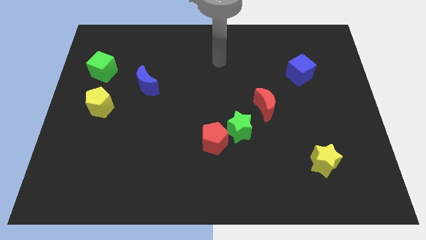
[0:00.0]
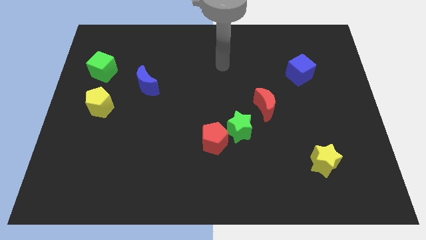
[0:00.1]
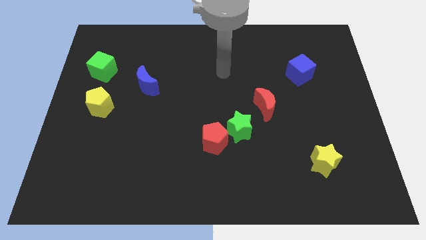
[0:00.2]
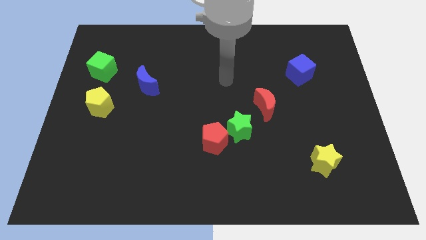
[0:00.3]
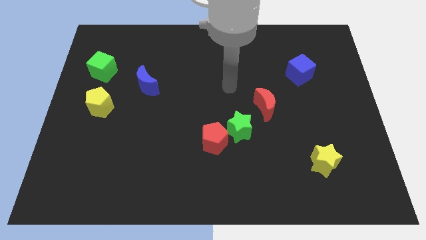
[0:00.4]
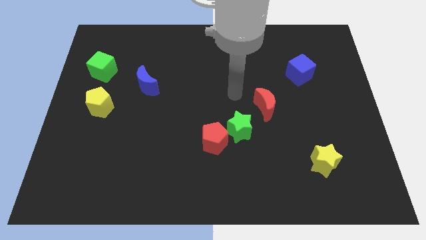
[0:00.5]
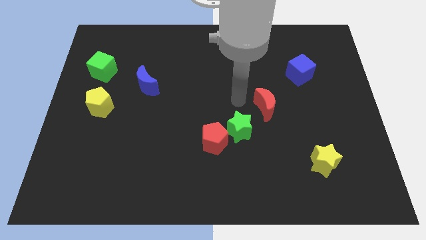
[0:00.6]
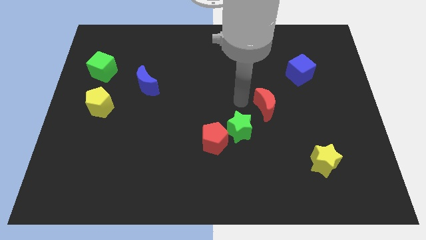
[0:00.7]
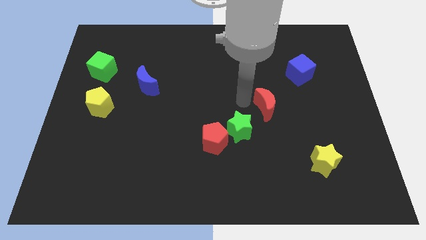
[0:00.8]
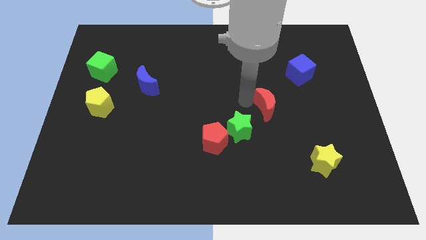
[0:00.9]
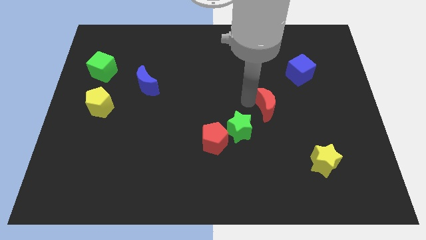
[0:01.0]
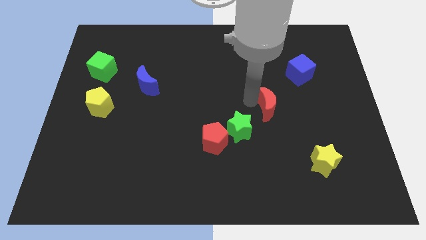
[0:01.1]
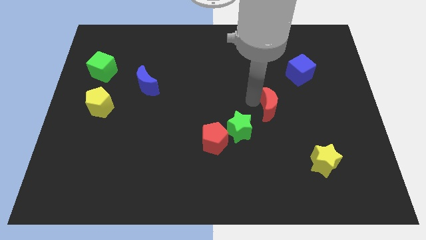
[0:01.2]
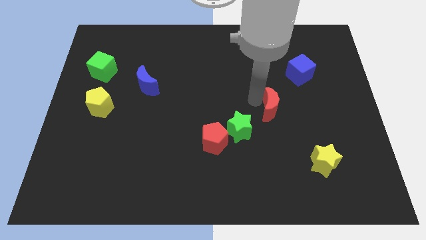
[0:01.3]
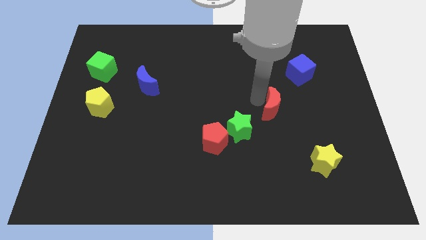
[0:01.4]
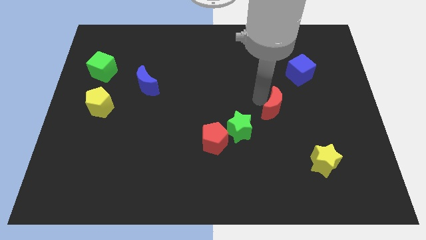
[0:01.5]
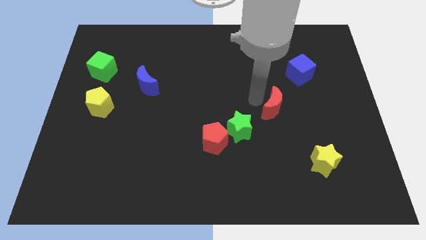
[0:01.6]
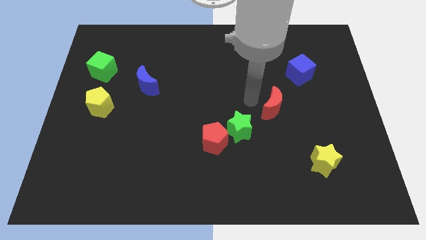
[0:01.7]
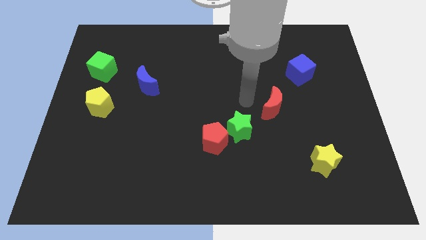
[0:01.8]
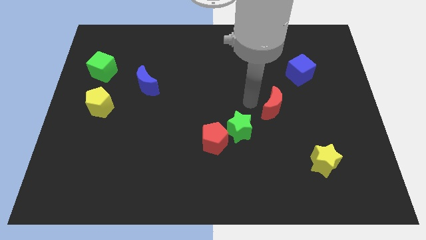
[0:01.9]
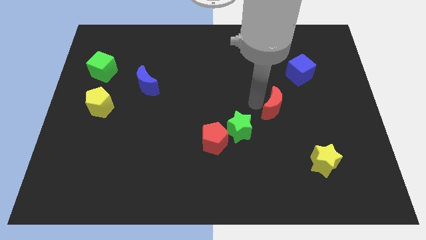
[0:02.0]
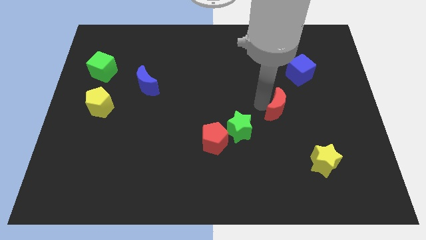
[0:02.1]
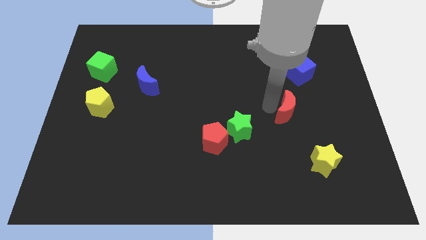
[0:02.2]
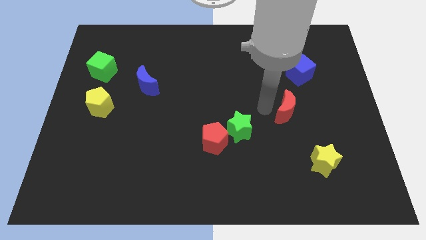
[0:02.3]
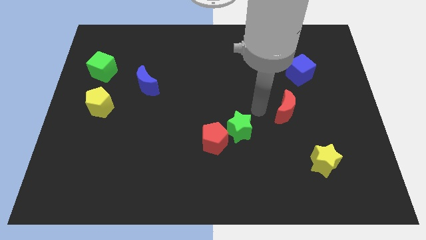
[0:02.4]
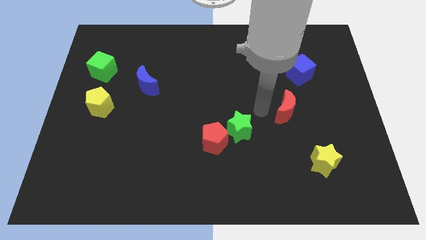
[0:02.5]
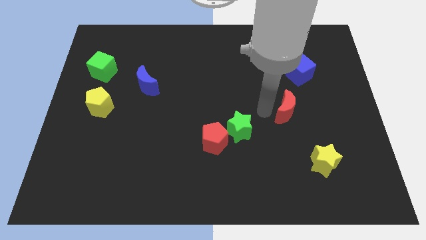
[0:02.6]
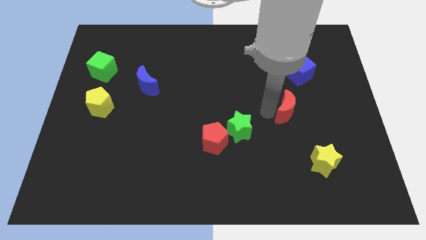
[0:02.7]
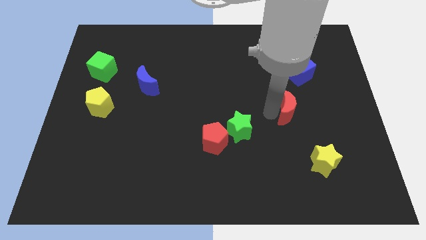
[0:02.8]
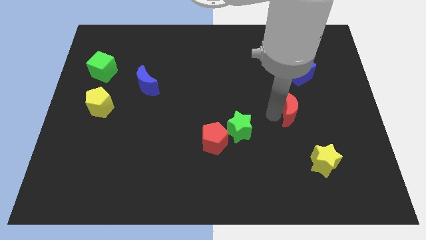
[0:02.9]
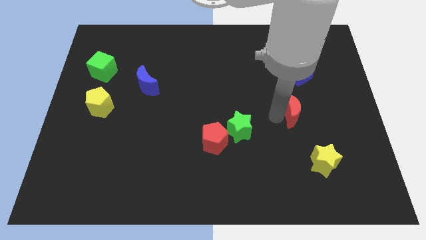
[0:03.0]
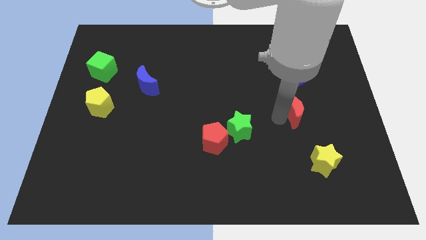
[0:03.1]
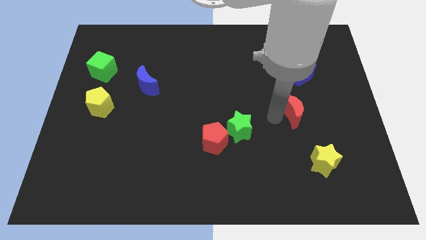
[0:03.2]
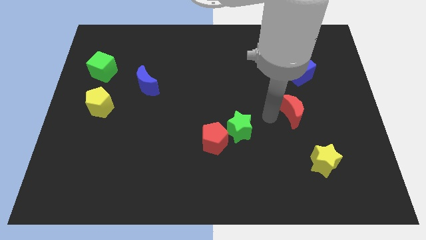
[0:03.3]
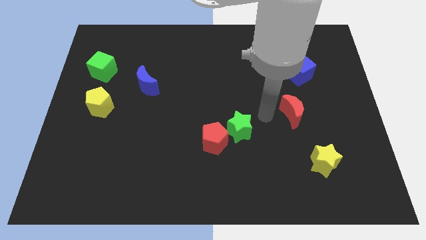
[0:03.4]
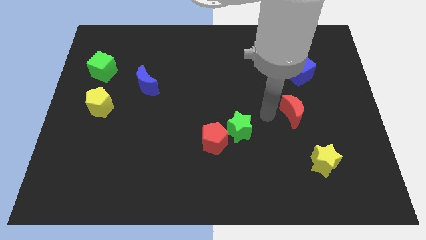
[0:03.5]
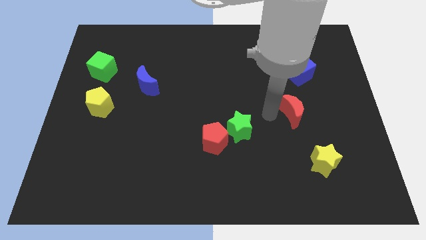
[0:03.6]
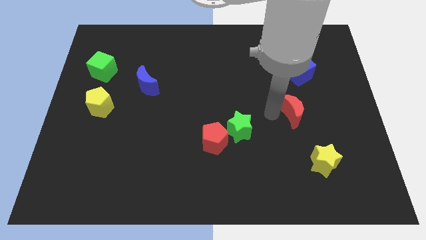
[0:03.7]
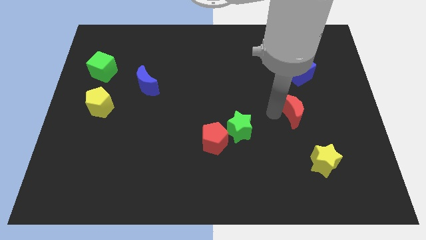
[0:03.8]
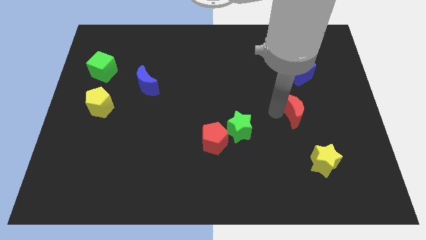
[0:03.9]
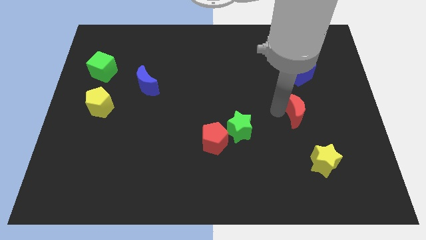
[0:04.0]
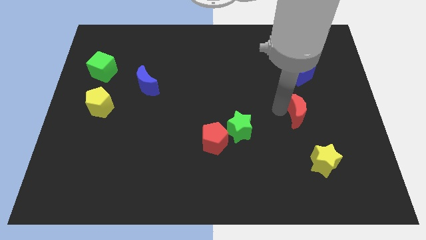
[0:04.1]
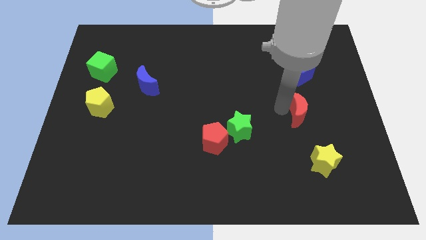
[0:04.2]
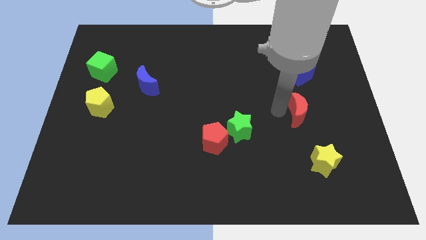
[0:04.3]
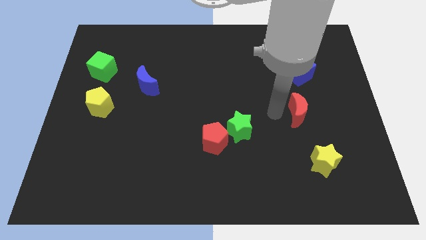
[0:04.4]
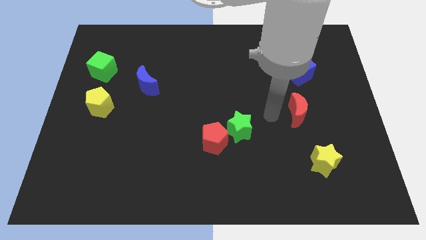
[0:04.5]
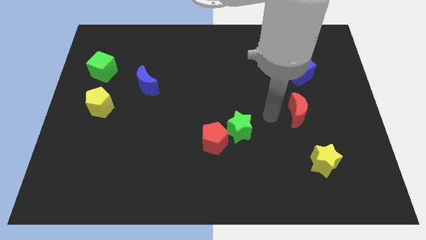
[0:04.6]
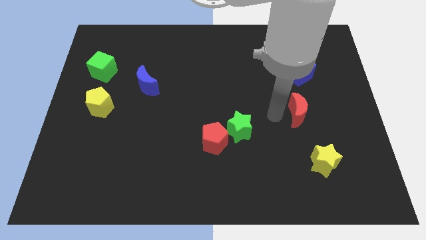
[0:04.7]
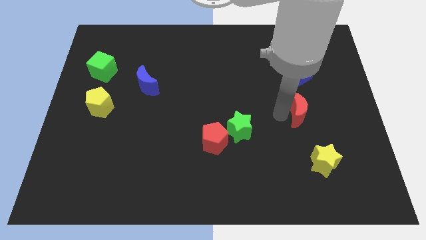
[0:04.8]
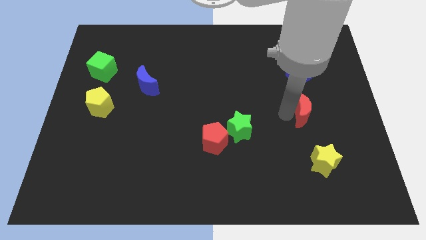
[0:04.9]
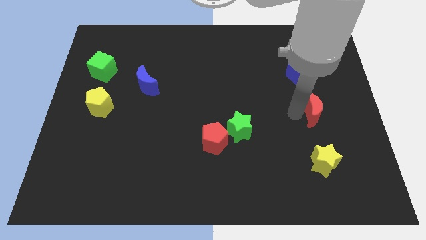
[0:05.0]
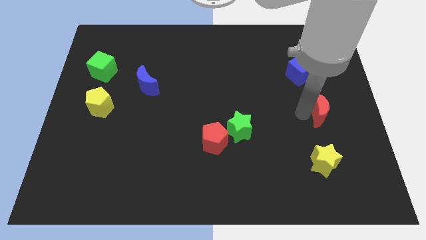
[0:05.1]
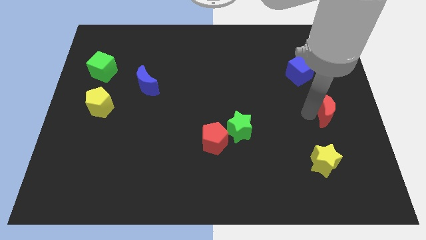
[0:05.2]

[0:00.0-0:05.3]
slide the red moon to the right side
